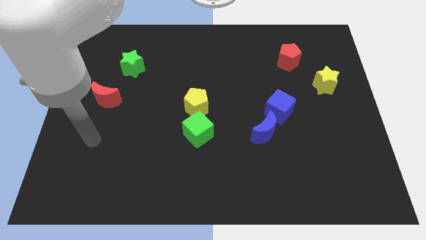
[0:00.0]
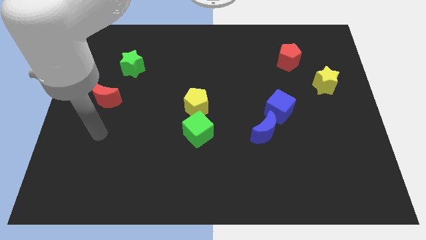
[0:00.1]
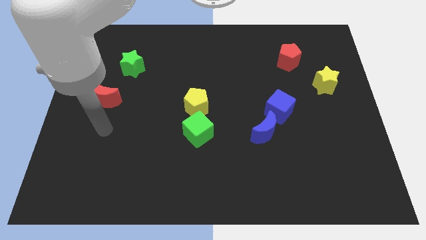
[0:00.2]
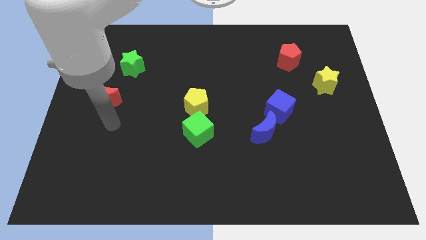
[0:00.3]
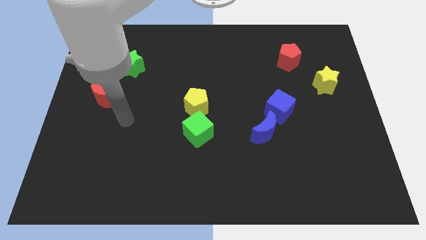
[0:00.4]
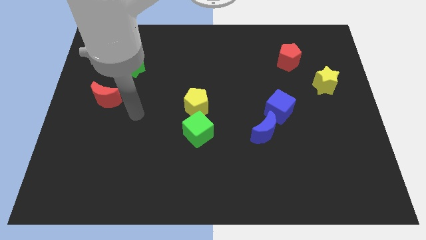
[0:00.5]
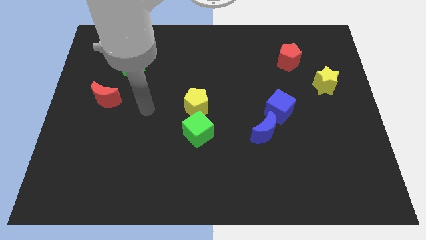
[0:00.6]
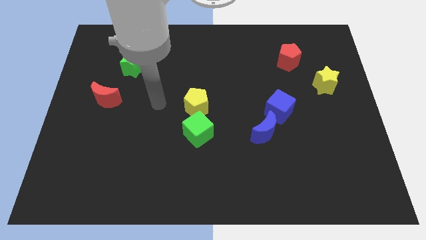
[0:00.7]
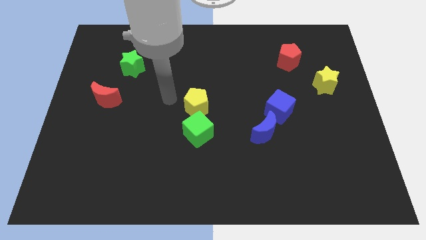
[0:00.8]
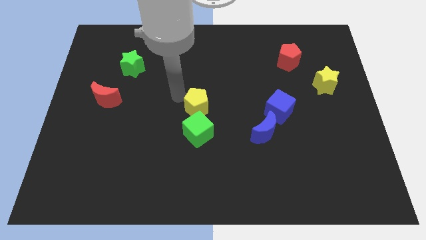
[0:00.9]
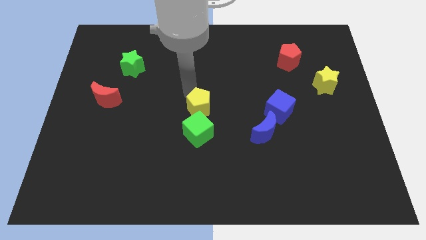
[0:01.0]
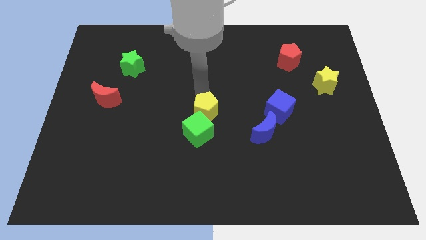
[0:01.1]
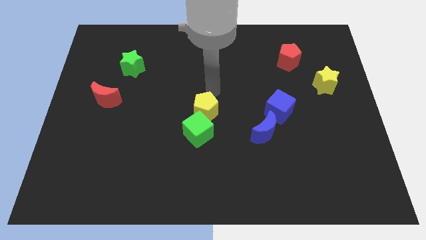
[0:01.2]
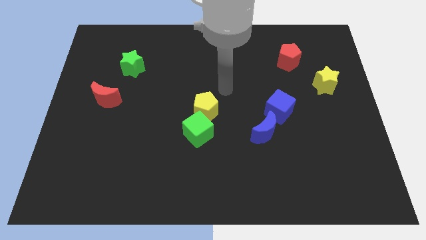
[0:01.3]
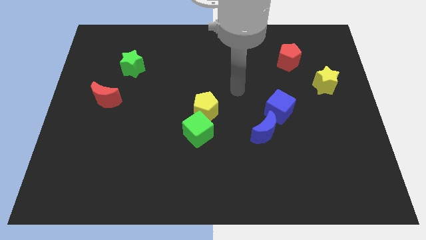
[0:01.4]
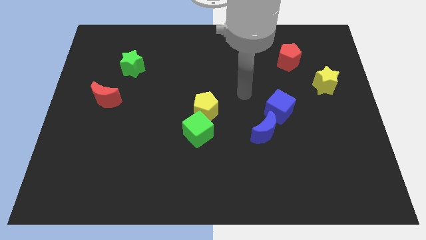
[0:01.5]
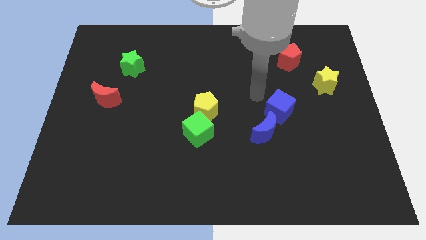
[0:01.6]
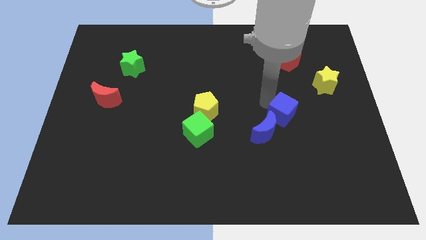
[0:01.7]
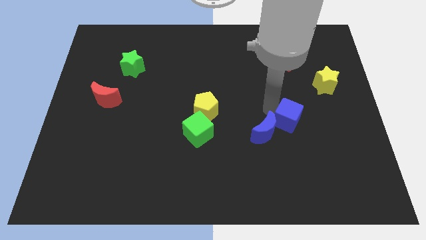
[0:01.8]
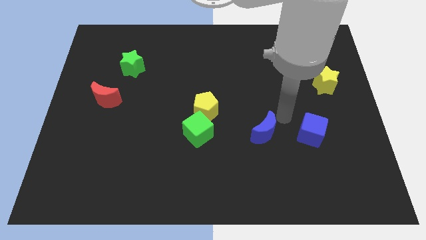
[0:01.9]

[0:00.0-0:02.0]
pull the blue moon apart from the blue cube

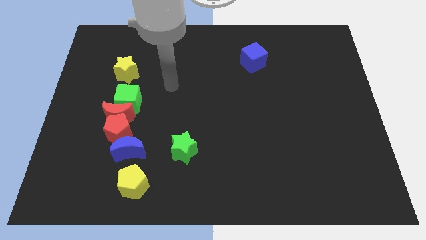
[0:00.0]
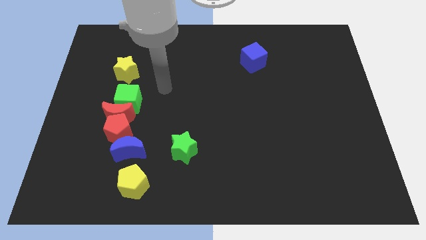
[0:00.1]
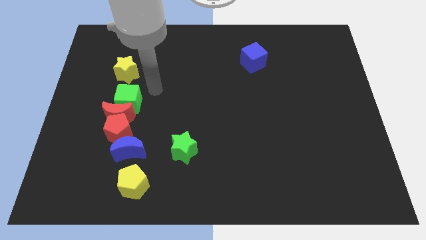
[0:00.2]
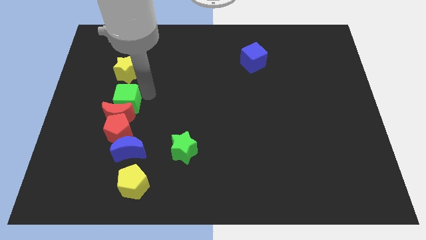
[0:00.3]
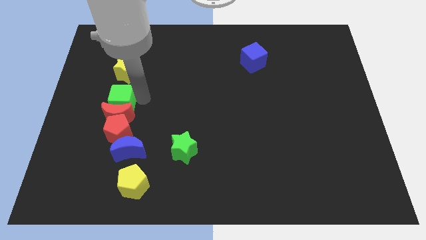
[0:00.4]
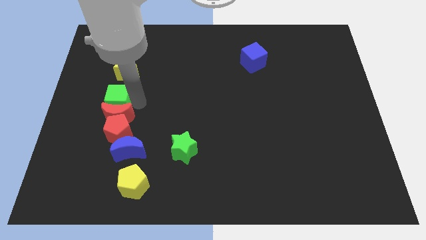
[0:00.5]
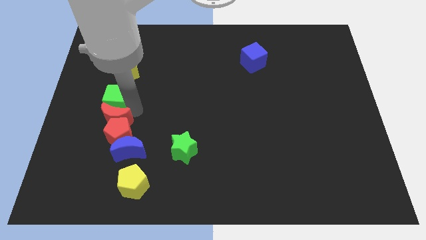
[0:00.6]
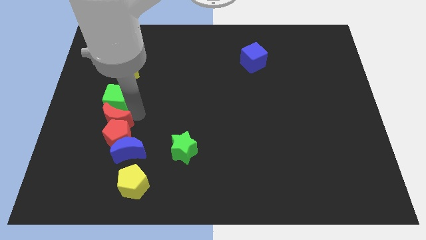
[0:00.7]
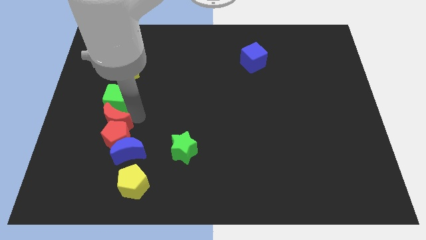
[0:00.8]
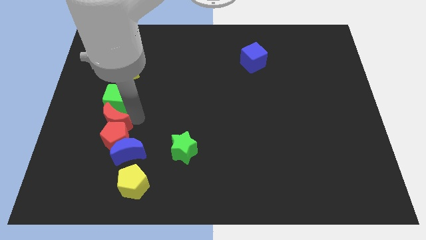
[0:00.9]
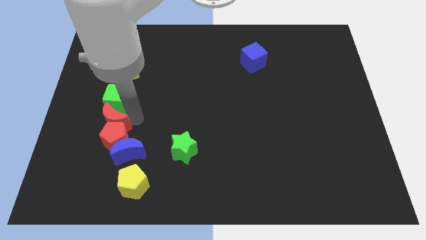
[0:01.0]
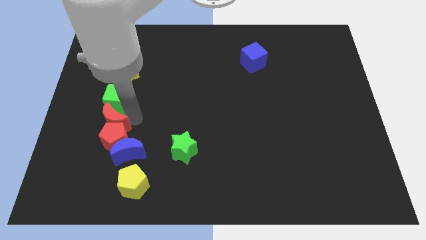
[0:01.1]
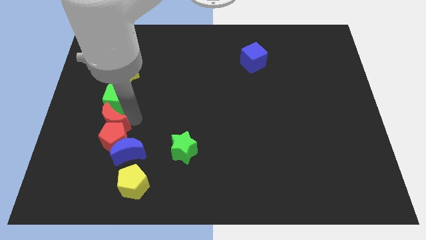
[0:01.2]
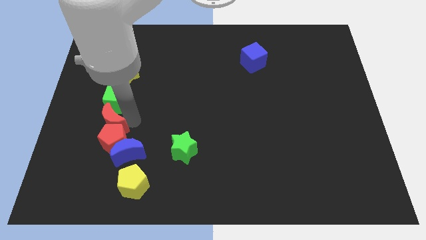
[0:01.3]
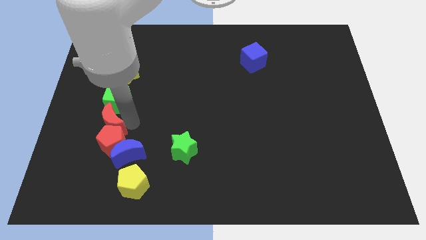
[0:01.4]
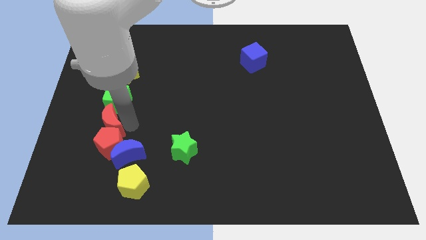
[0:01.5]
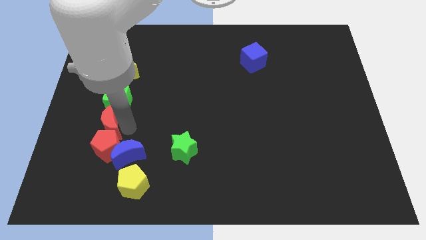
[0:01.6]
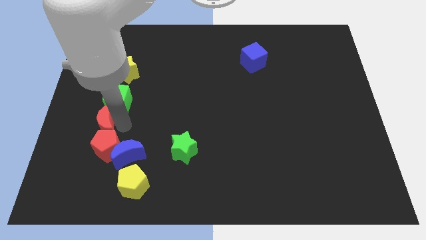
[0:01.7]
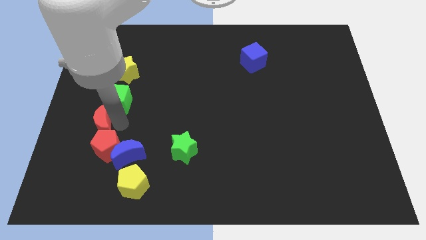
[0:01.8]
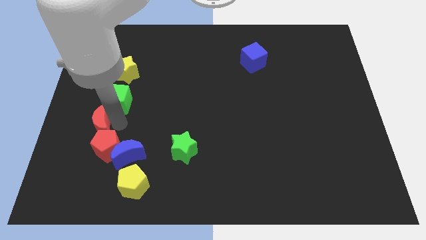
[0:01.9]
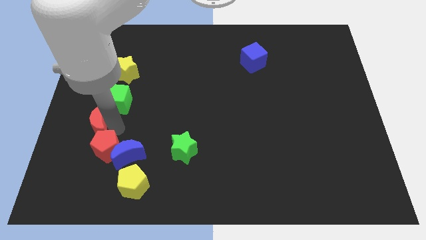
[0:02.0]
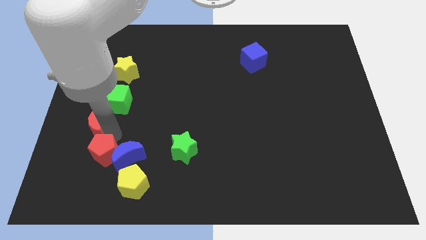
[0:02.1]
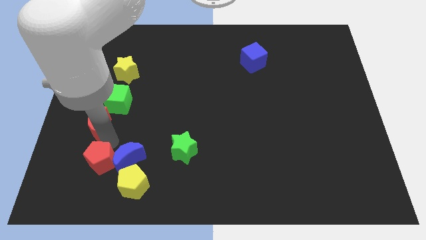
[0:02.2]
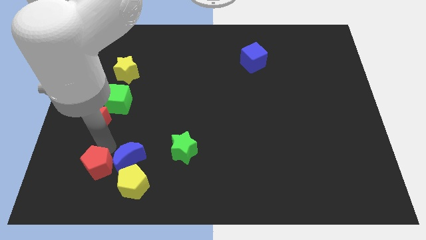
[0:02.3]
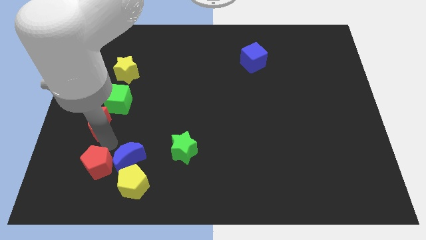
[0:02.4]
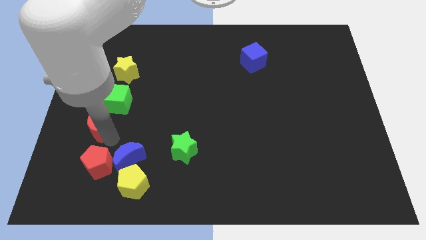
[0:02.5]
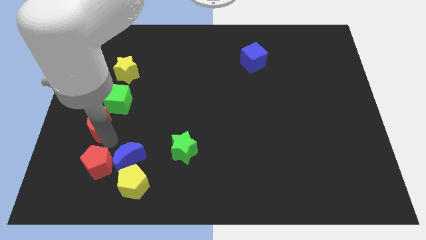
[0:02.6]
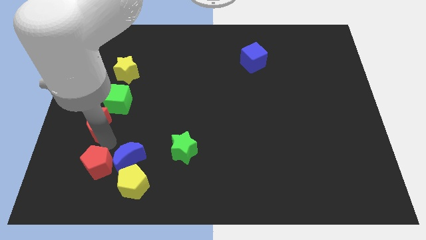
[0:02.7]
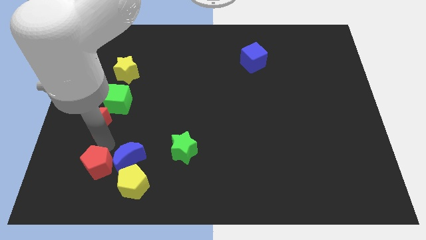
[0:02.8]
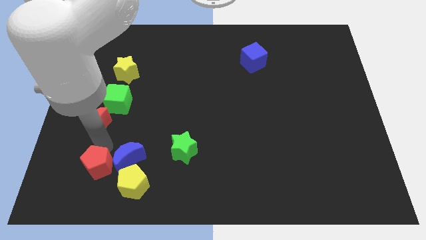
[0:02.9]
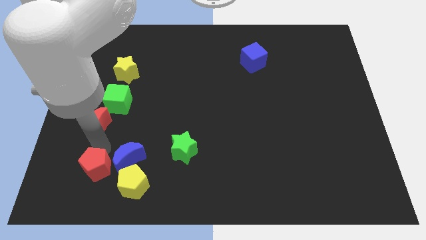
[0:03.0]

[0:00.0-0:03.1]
separate the red pentagon from the clump

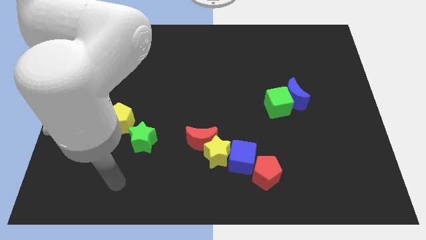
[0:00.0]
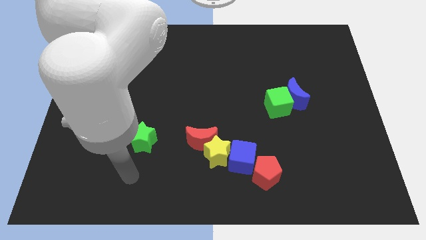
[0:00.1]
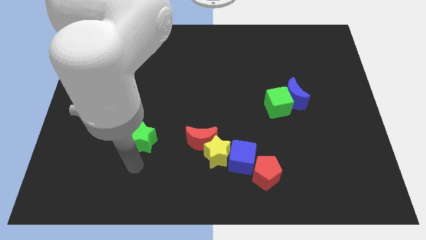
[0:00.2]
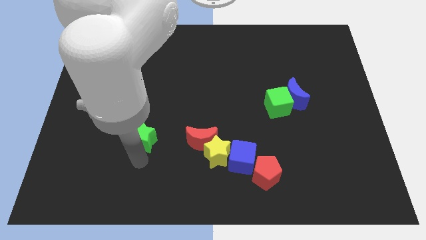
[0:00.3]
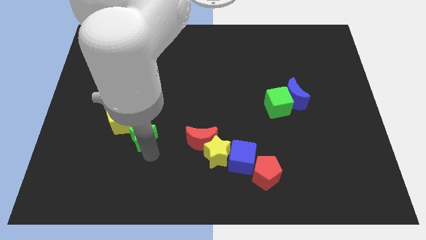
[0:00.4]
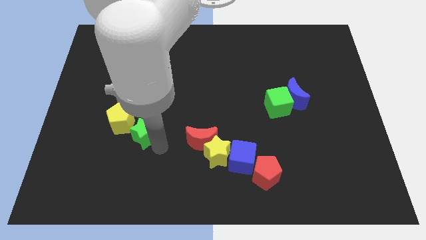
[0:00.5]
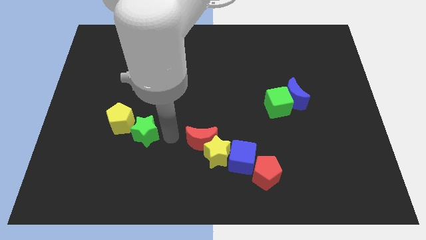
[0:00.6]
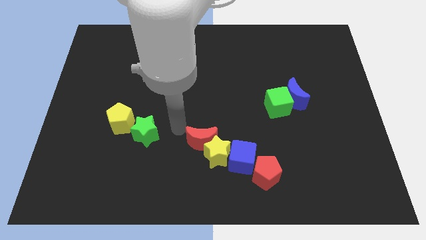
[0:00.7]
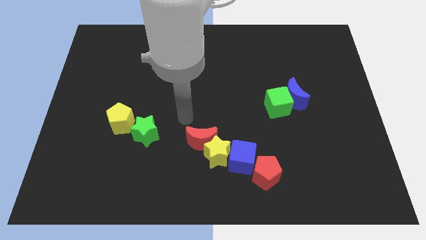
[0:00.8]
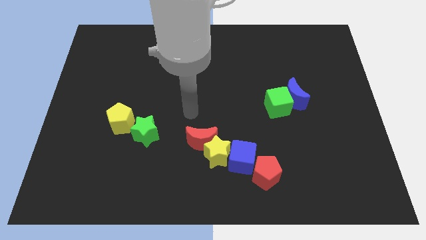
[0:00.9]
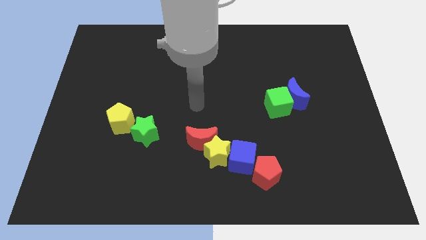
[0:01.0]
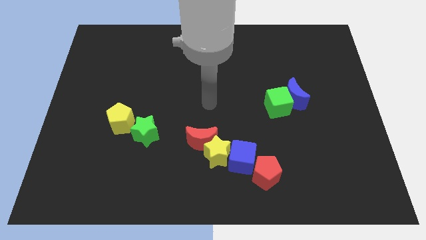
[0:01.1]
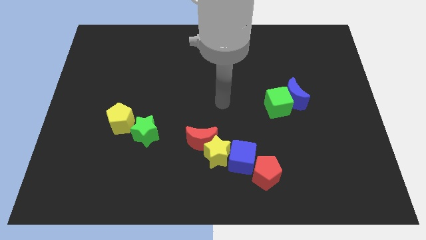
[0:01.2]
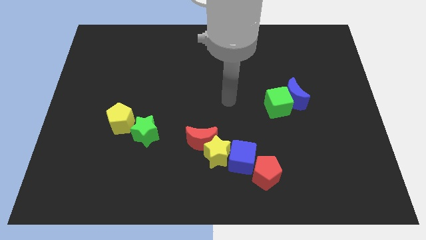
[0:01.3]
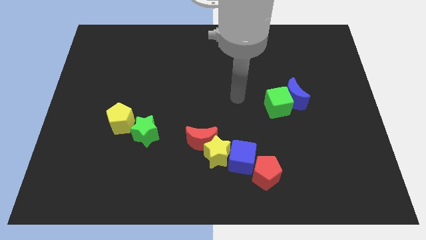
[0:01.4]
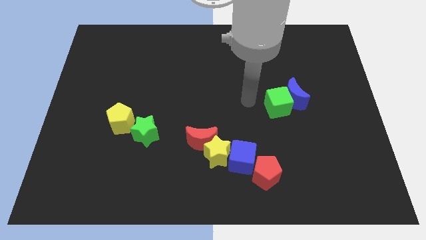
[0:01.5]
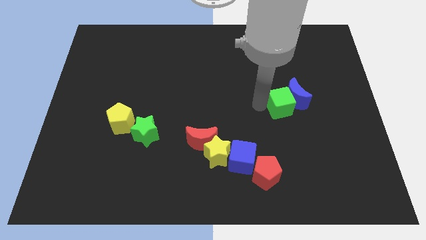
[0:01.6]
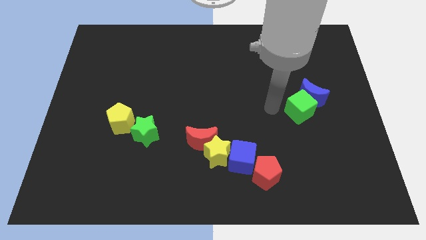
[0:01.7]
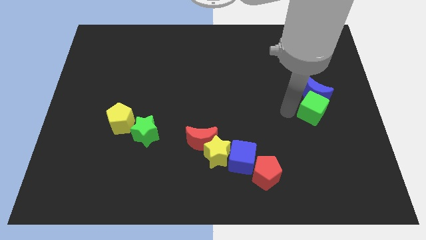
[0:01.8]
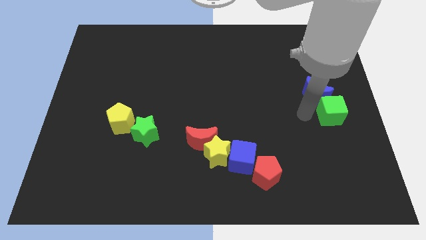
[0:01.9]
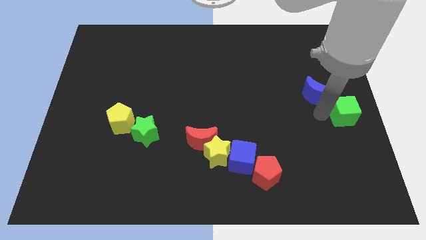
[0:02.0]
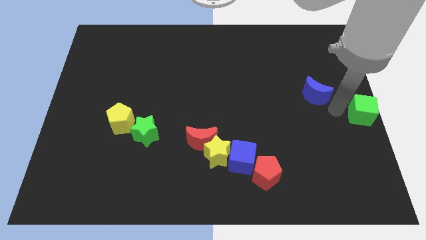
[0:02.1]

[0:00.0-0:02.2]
pull the blue moon apart from the green cube

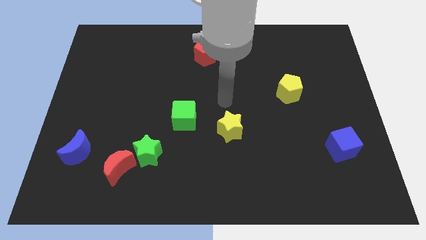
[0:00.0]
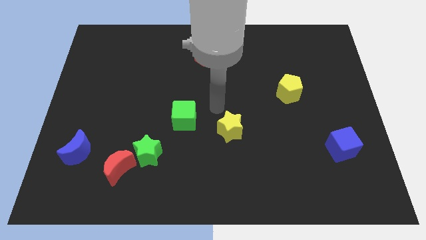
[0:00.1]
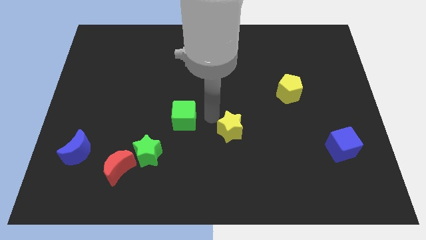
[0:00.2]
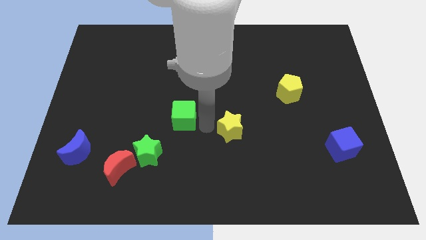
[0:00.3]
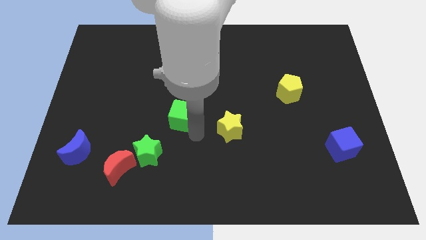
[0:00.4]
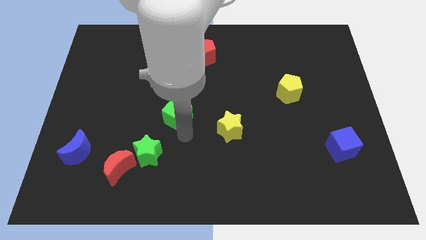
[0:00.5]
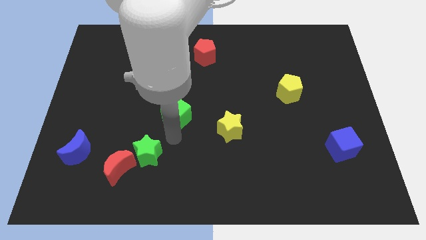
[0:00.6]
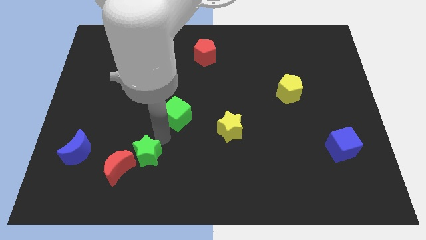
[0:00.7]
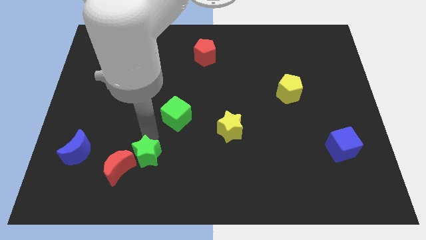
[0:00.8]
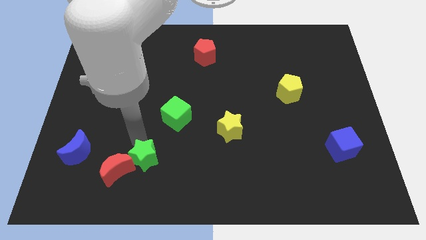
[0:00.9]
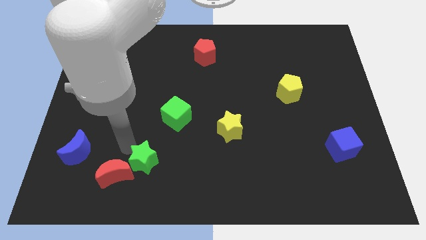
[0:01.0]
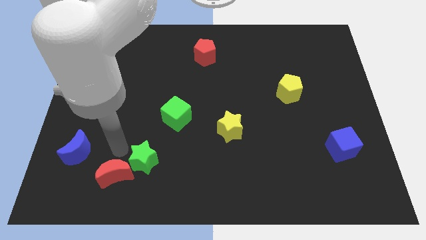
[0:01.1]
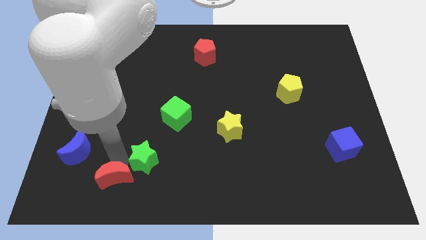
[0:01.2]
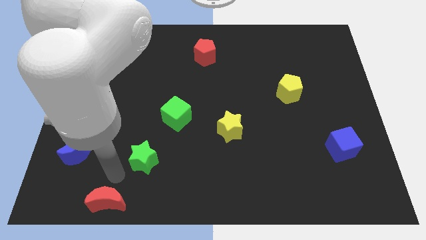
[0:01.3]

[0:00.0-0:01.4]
move the green star away from the red moon

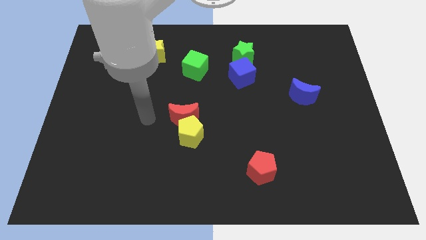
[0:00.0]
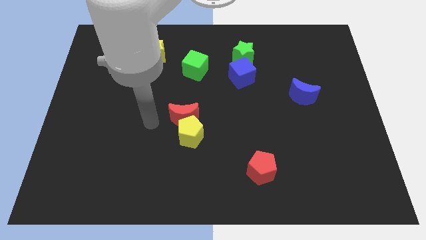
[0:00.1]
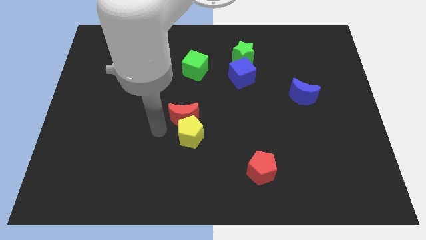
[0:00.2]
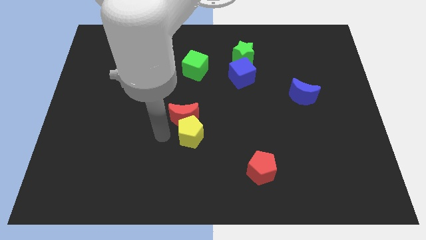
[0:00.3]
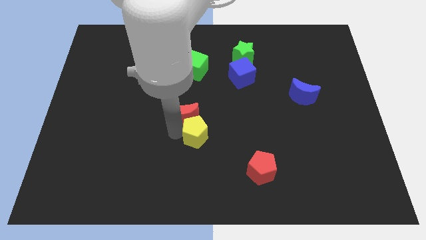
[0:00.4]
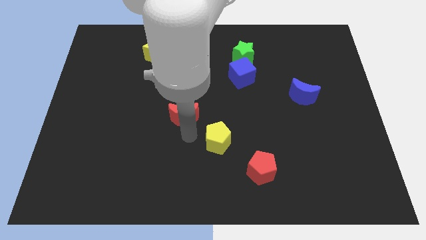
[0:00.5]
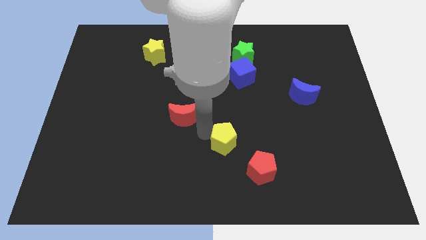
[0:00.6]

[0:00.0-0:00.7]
separate the red moon from the yellow pentagon
